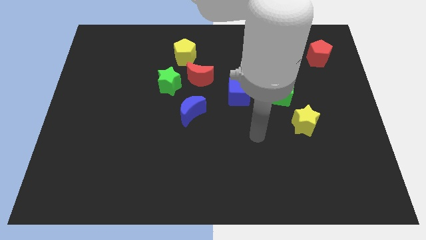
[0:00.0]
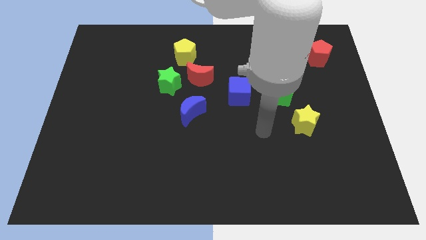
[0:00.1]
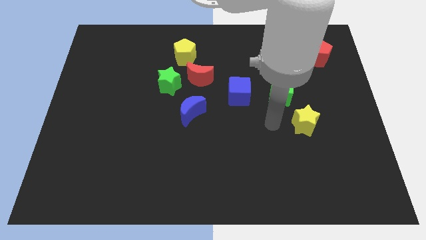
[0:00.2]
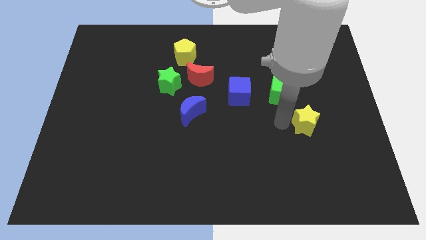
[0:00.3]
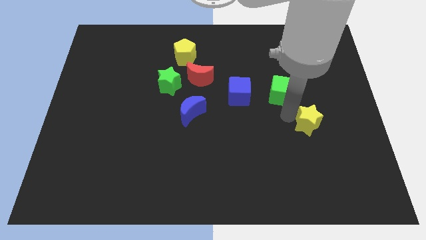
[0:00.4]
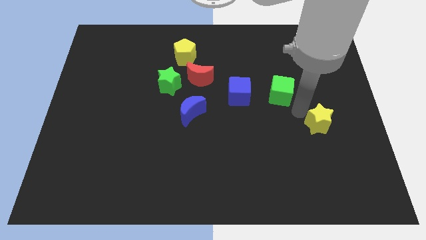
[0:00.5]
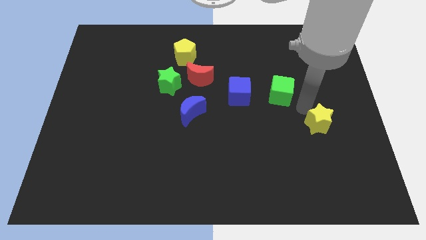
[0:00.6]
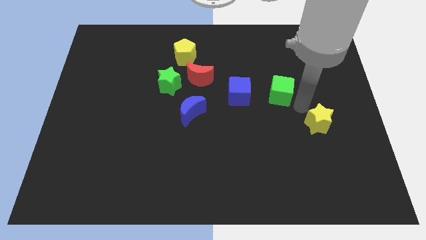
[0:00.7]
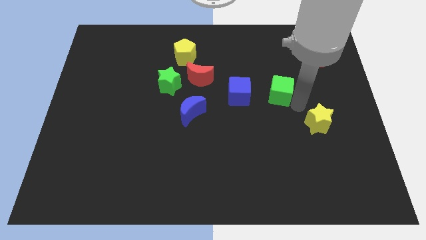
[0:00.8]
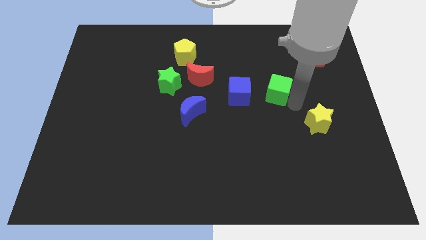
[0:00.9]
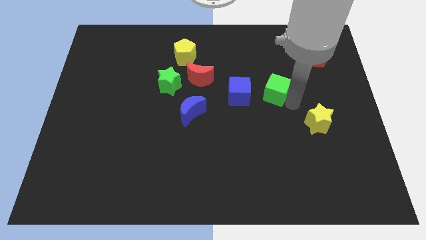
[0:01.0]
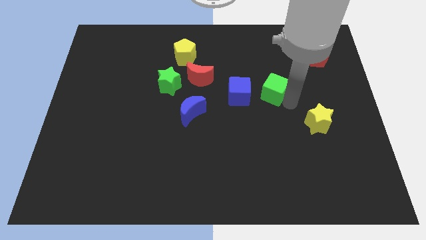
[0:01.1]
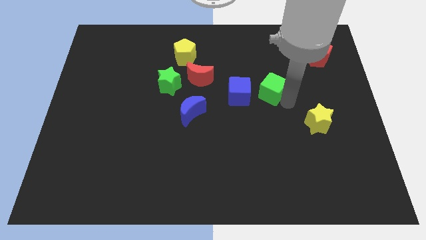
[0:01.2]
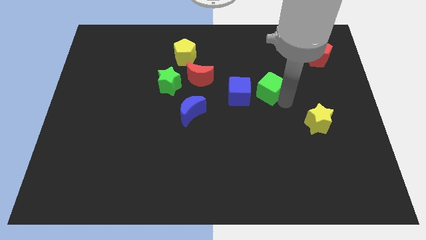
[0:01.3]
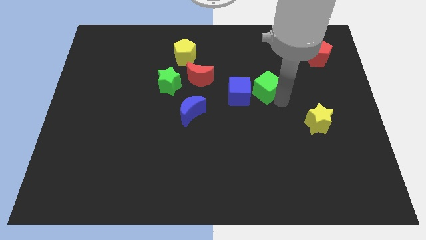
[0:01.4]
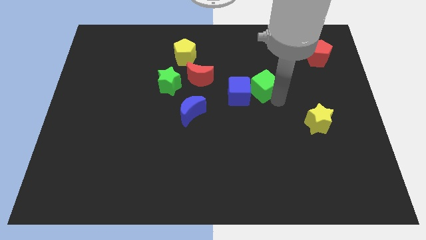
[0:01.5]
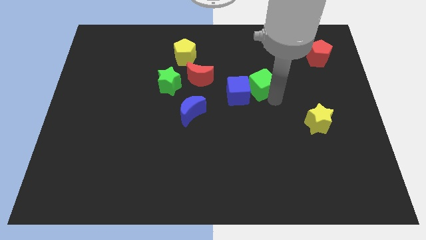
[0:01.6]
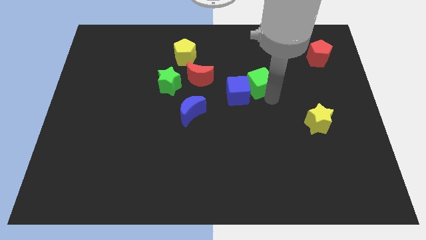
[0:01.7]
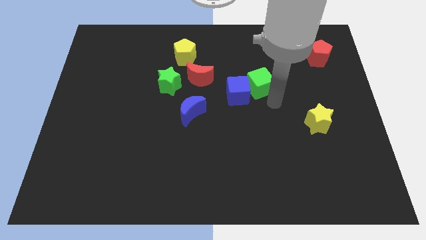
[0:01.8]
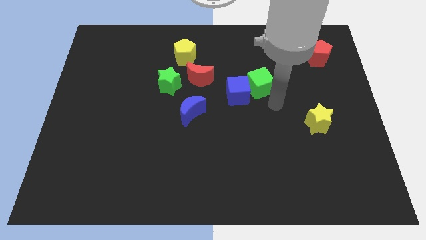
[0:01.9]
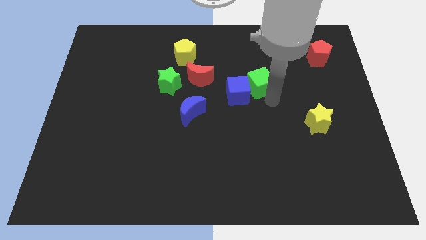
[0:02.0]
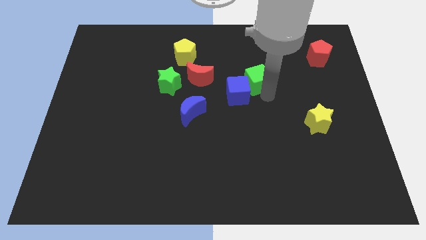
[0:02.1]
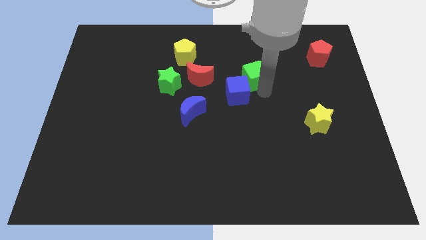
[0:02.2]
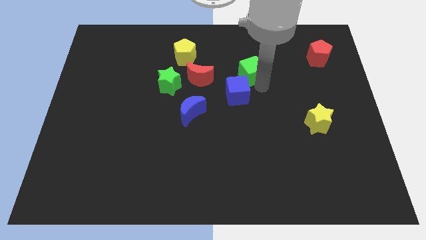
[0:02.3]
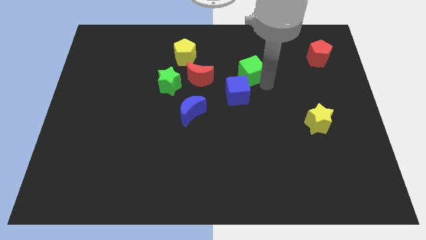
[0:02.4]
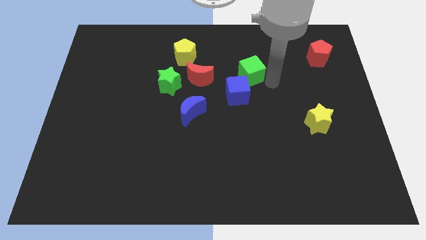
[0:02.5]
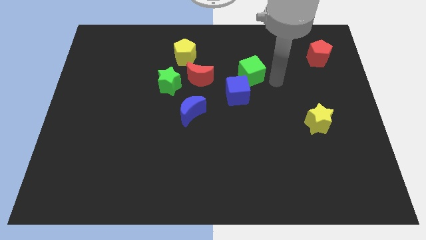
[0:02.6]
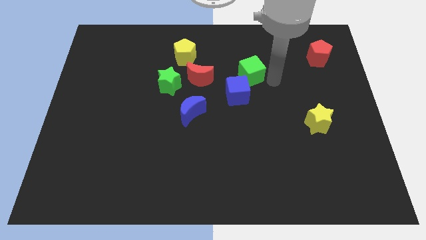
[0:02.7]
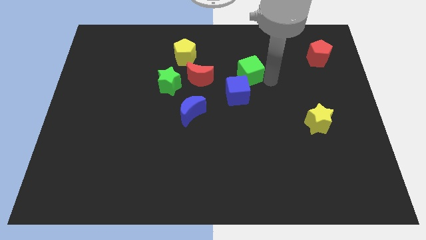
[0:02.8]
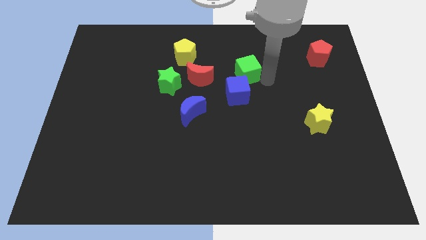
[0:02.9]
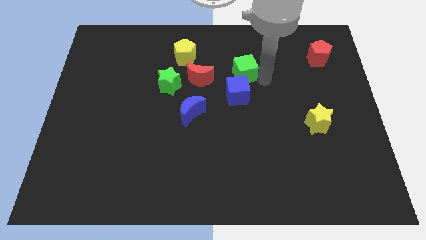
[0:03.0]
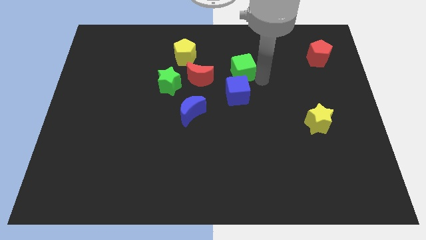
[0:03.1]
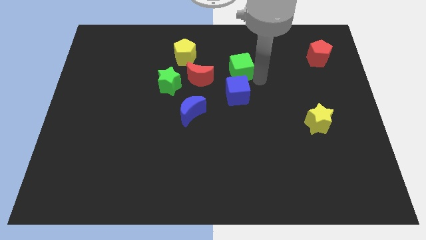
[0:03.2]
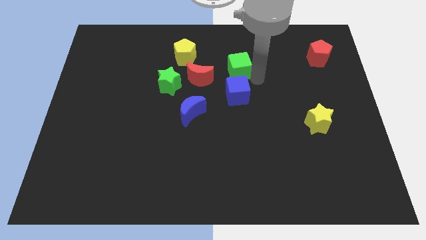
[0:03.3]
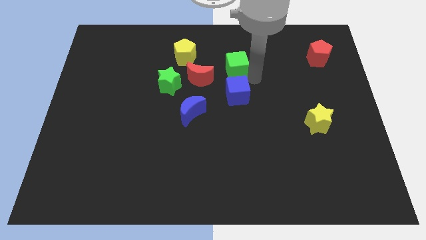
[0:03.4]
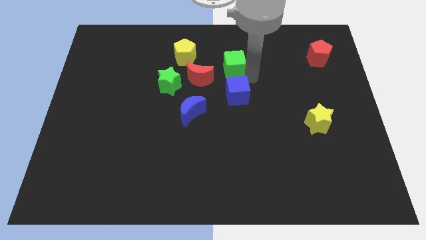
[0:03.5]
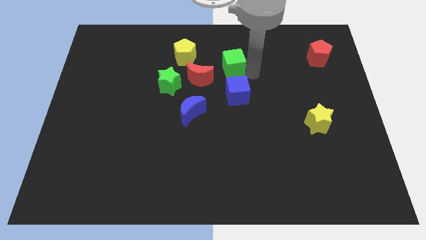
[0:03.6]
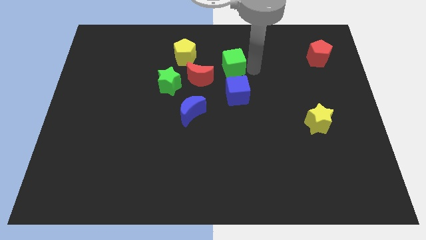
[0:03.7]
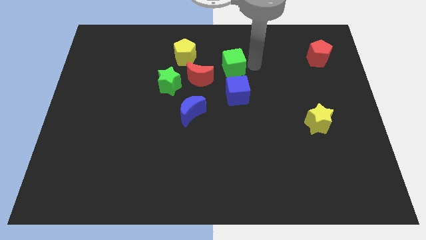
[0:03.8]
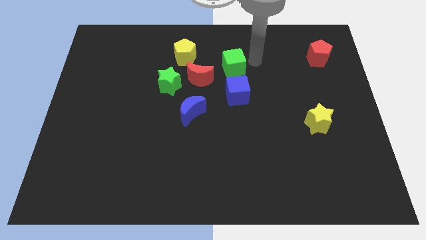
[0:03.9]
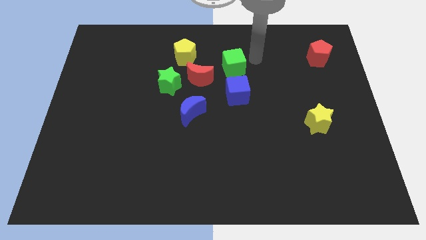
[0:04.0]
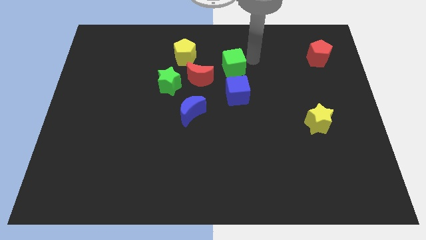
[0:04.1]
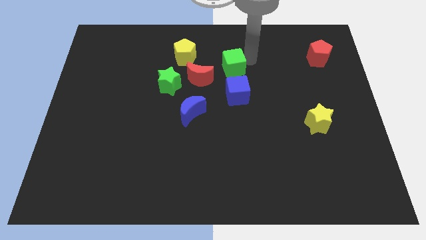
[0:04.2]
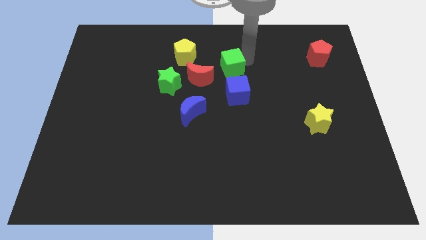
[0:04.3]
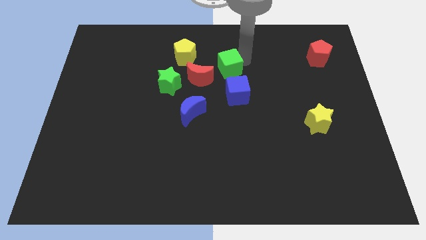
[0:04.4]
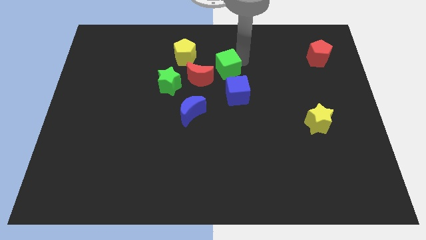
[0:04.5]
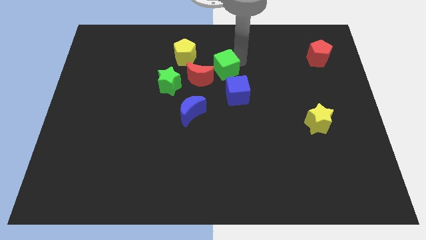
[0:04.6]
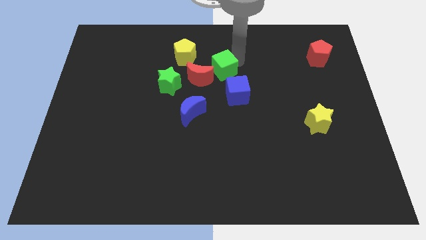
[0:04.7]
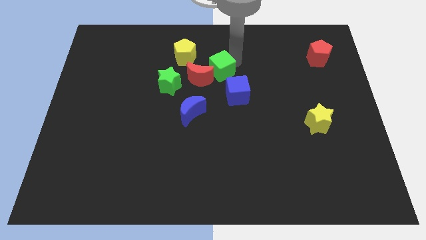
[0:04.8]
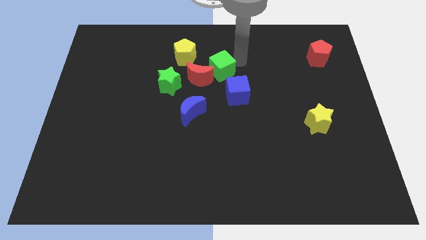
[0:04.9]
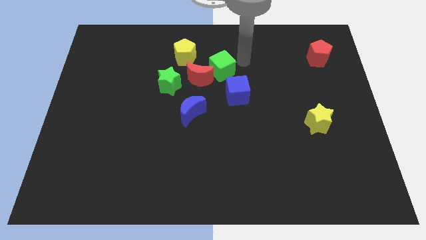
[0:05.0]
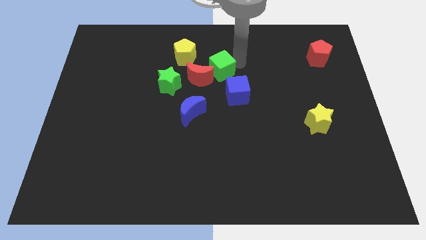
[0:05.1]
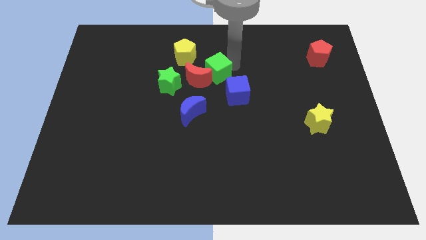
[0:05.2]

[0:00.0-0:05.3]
put the green cube close to the red moon

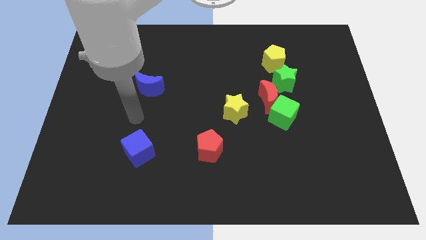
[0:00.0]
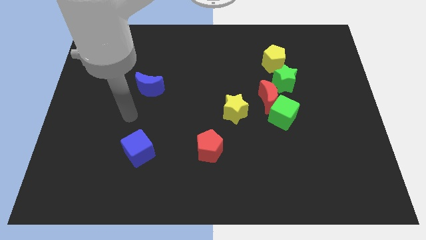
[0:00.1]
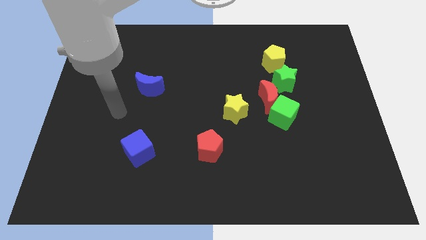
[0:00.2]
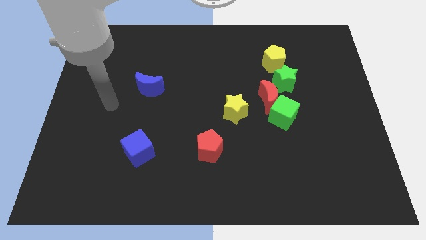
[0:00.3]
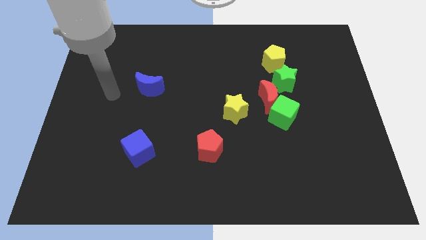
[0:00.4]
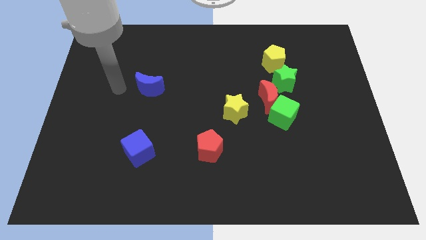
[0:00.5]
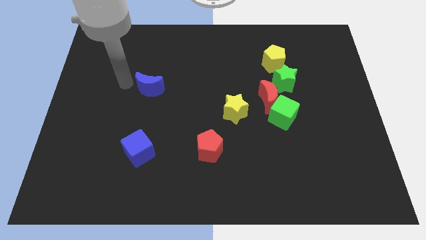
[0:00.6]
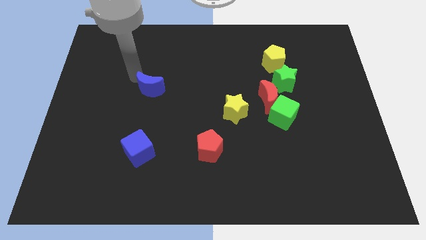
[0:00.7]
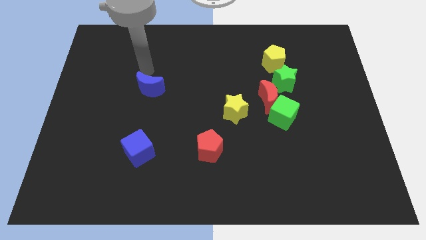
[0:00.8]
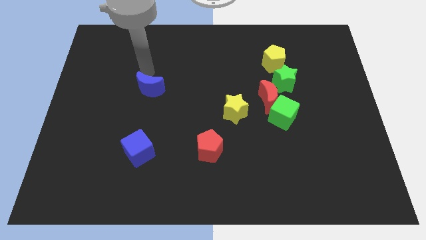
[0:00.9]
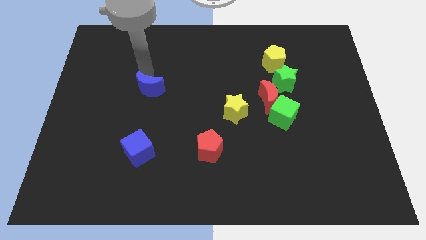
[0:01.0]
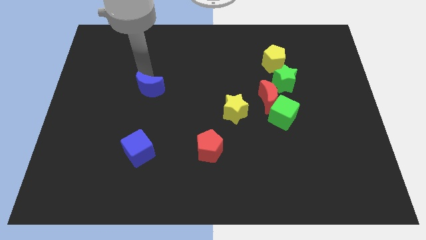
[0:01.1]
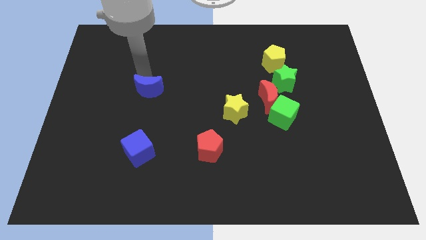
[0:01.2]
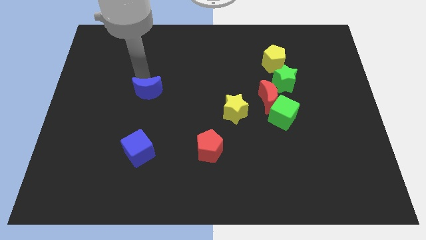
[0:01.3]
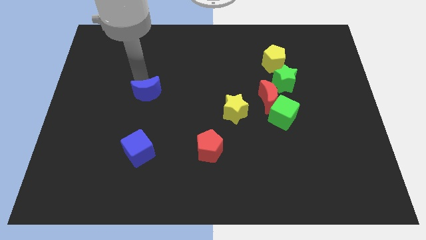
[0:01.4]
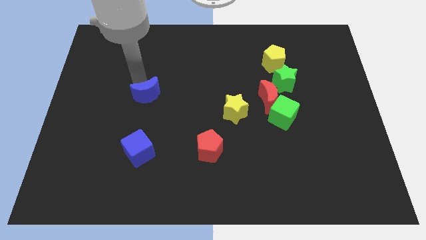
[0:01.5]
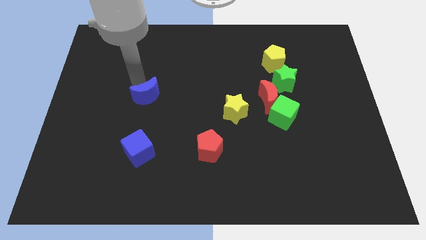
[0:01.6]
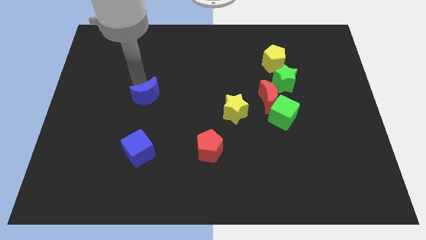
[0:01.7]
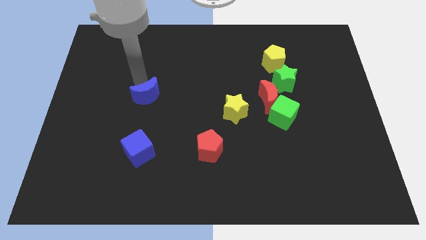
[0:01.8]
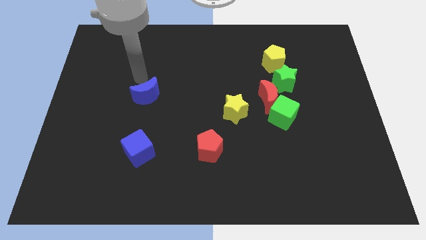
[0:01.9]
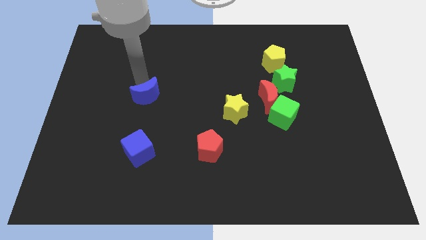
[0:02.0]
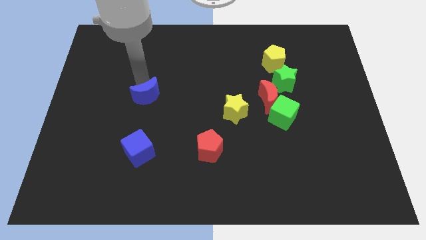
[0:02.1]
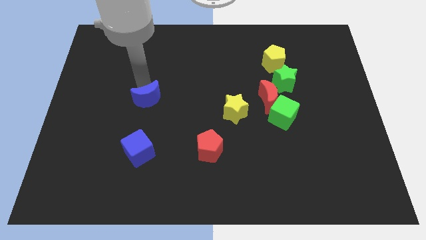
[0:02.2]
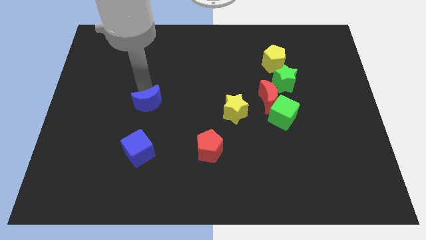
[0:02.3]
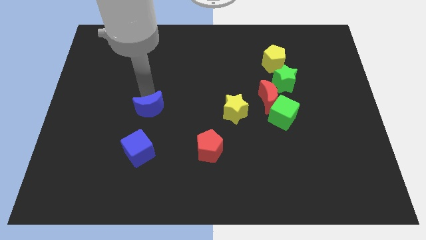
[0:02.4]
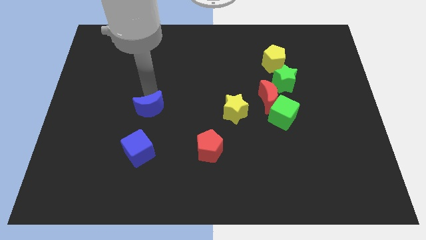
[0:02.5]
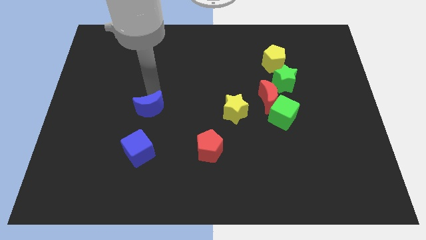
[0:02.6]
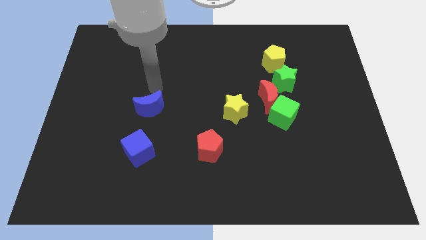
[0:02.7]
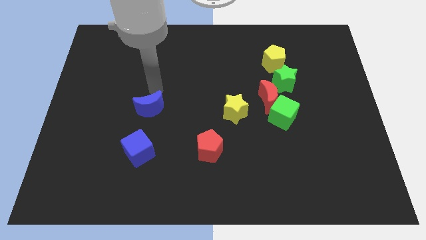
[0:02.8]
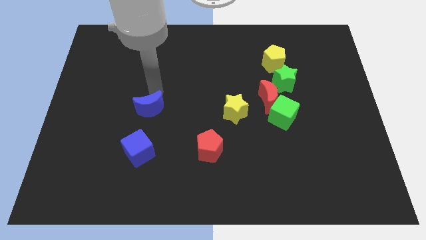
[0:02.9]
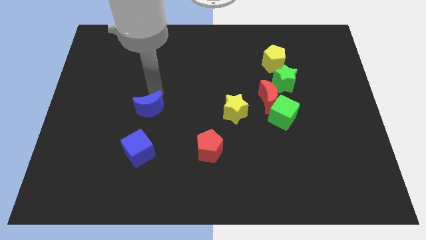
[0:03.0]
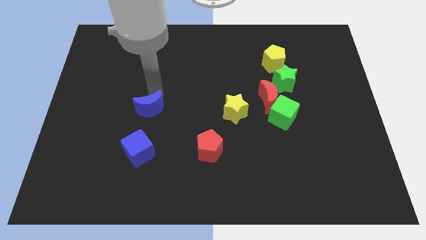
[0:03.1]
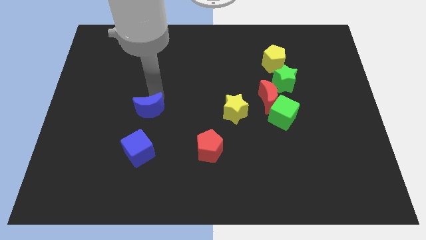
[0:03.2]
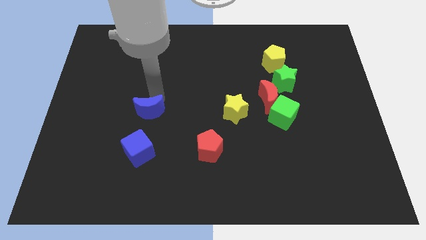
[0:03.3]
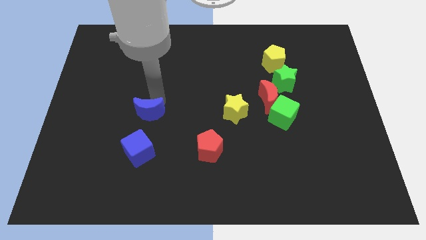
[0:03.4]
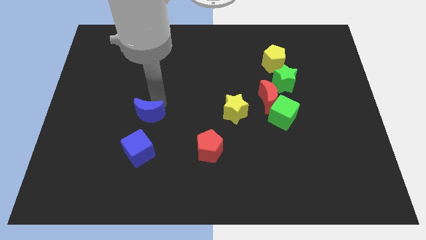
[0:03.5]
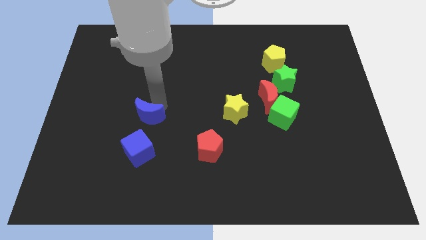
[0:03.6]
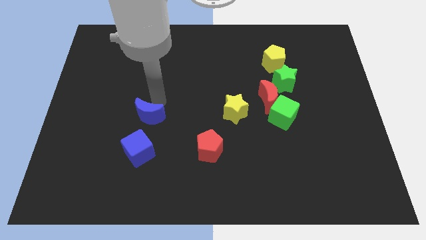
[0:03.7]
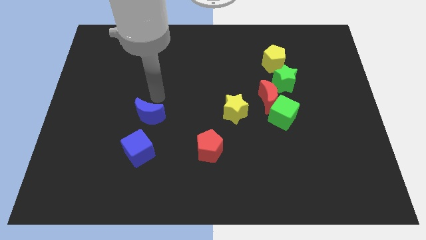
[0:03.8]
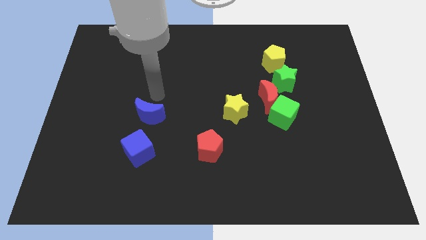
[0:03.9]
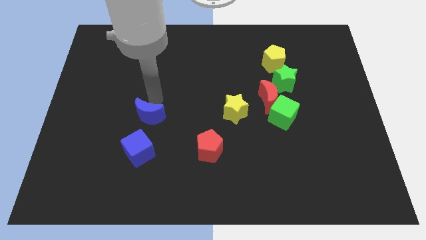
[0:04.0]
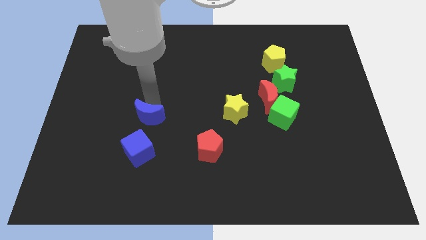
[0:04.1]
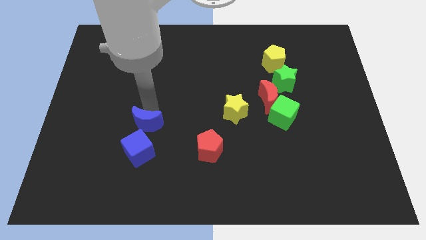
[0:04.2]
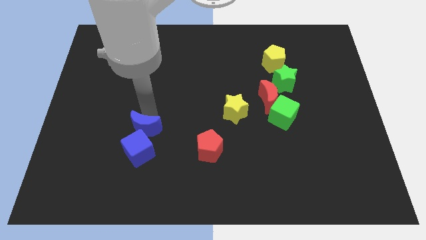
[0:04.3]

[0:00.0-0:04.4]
put the blue moon towards the blue cube
